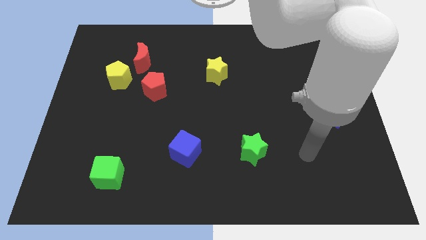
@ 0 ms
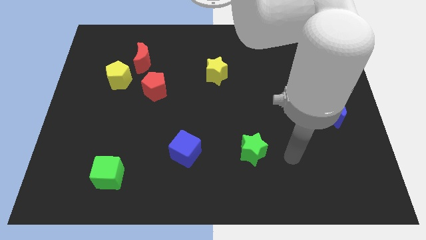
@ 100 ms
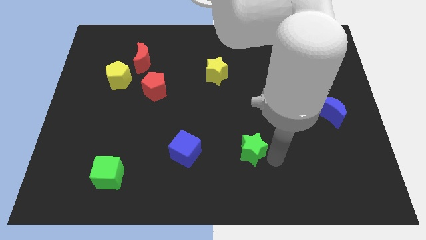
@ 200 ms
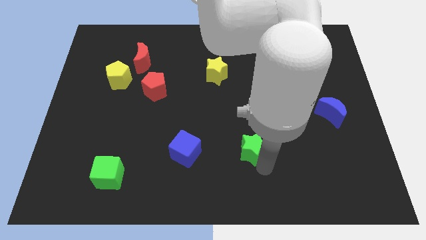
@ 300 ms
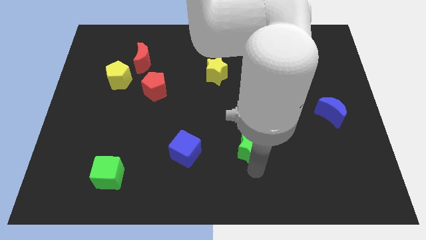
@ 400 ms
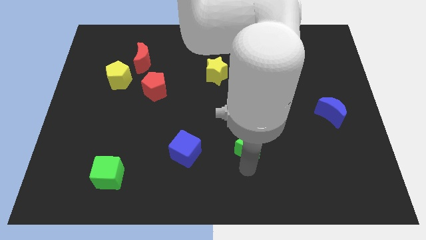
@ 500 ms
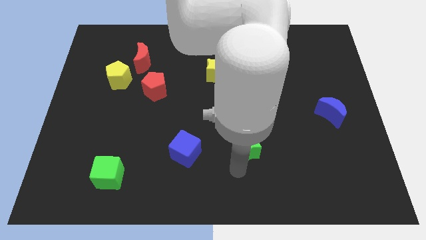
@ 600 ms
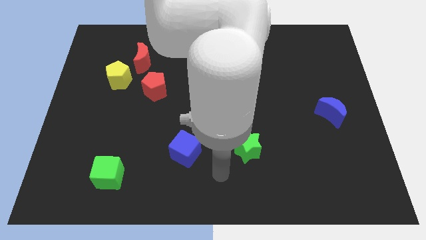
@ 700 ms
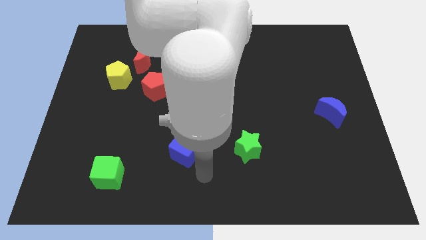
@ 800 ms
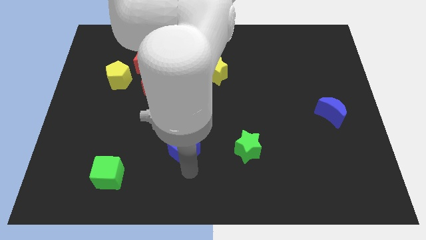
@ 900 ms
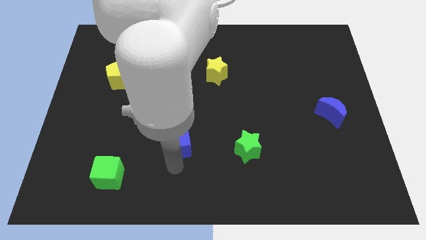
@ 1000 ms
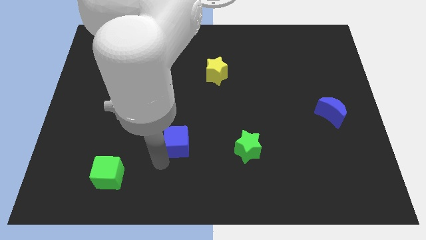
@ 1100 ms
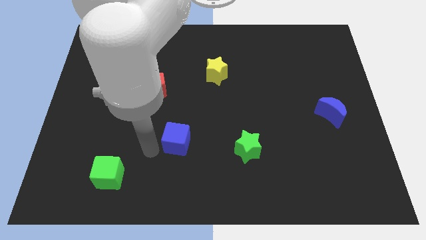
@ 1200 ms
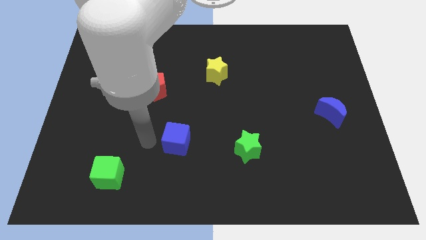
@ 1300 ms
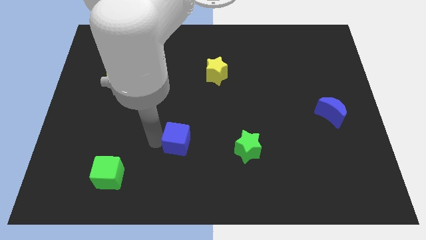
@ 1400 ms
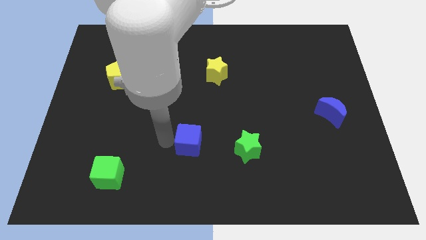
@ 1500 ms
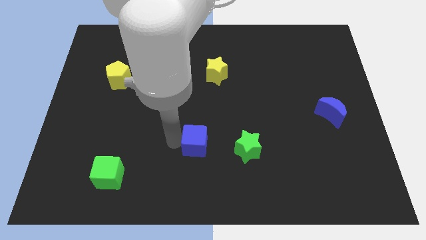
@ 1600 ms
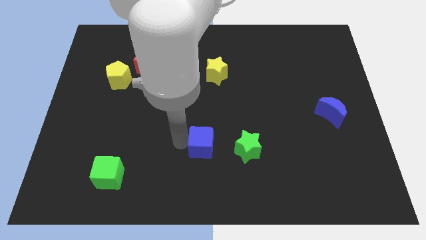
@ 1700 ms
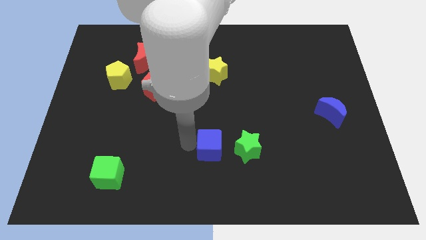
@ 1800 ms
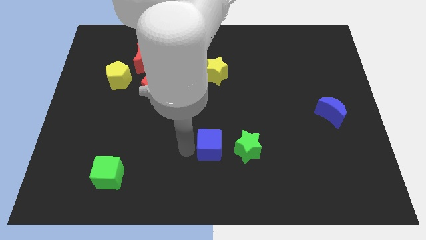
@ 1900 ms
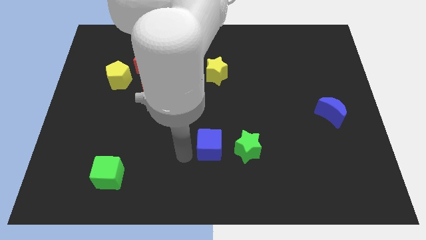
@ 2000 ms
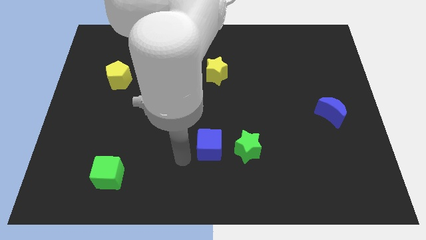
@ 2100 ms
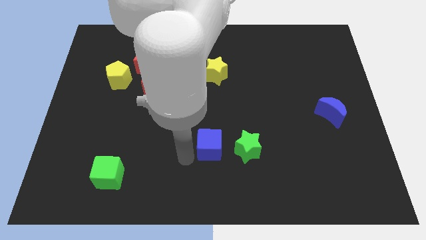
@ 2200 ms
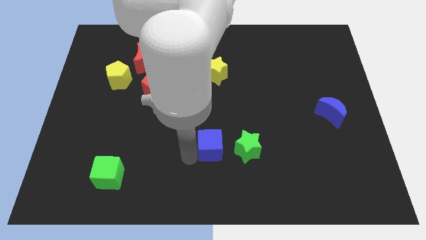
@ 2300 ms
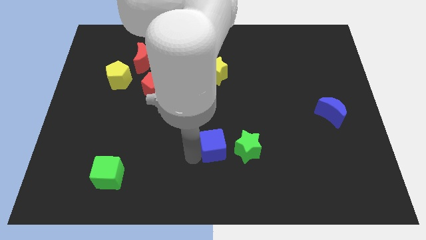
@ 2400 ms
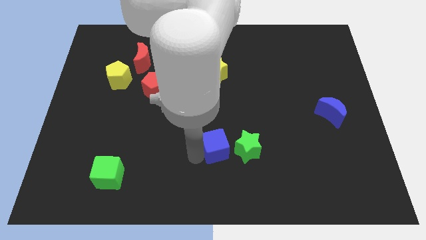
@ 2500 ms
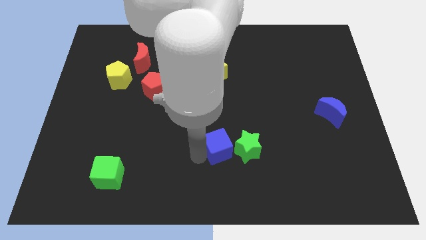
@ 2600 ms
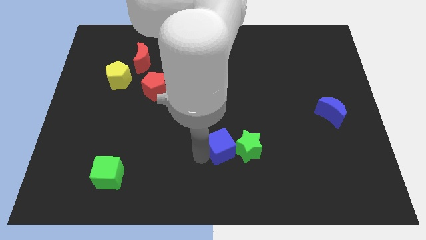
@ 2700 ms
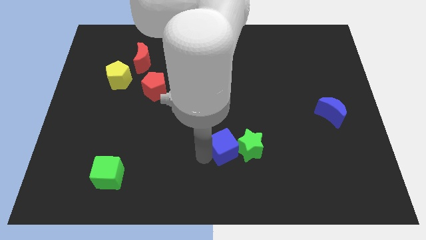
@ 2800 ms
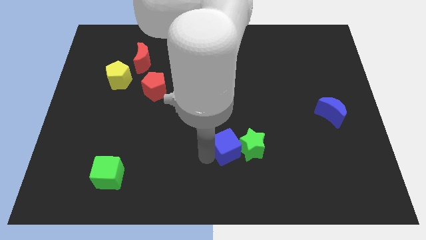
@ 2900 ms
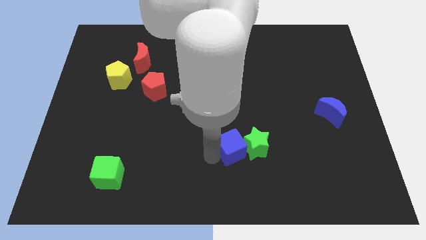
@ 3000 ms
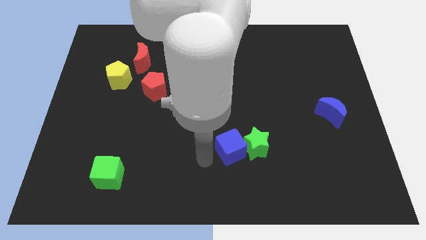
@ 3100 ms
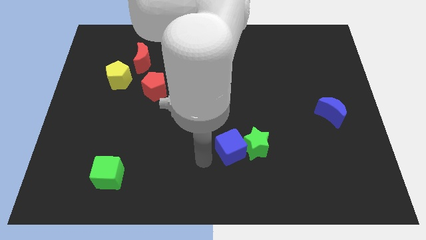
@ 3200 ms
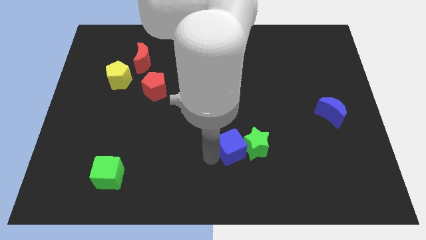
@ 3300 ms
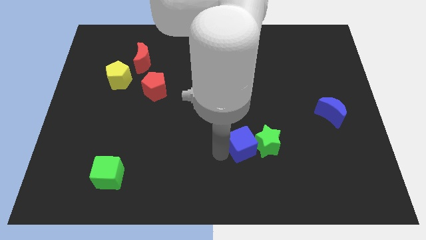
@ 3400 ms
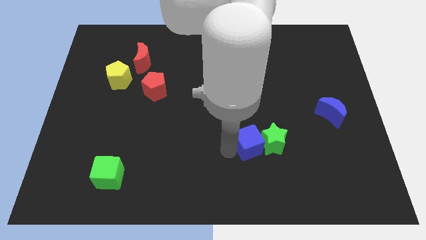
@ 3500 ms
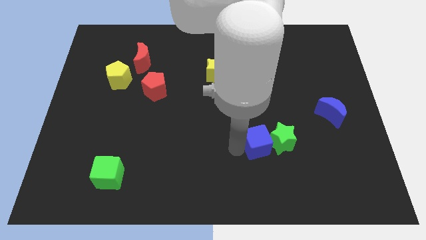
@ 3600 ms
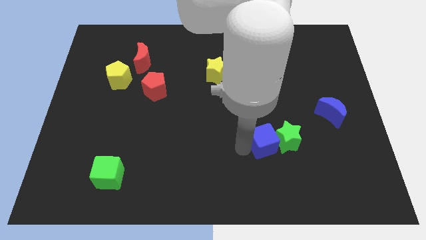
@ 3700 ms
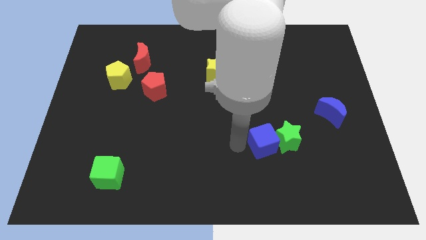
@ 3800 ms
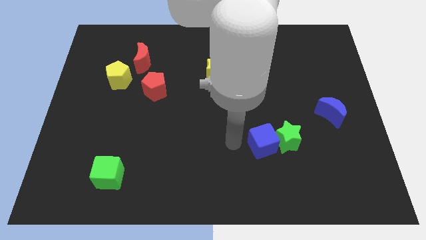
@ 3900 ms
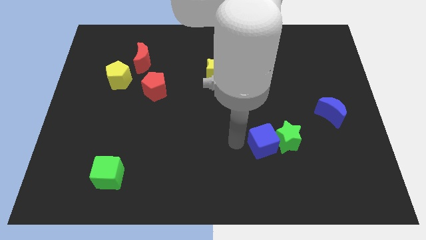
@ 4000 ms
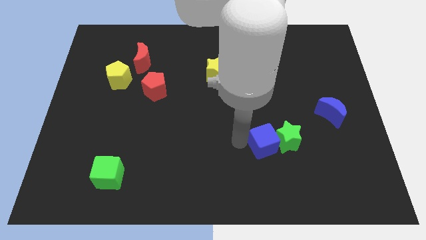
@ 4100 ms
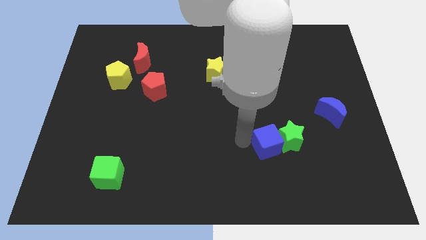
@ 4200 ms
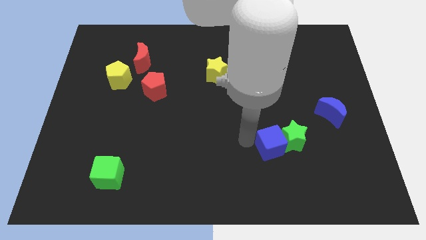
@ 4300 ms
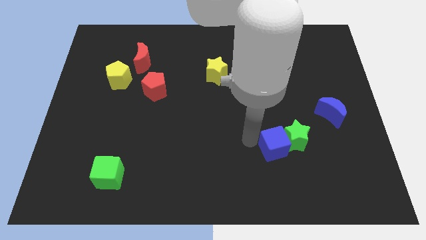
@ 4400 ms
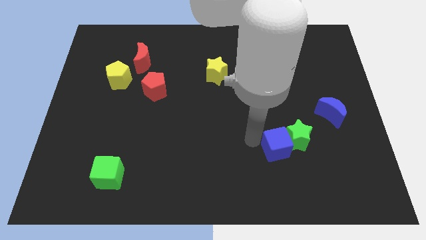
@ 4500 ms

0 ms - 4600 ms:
slide the blue cube right

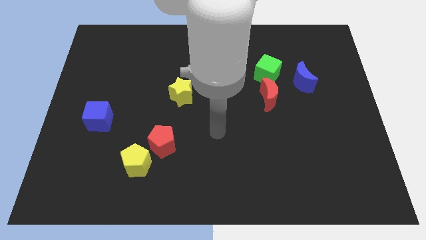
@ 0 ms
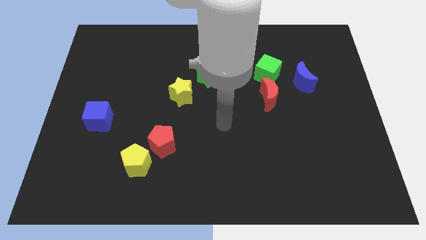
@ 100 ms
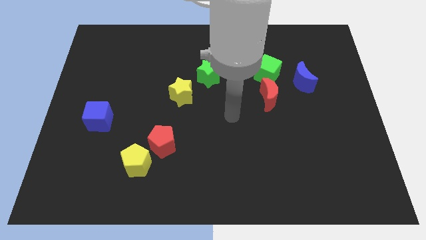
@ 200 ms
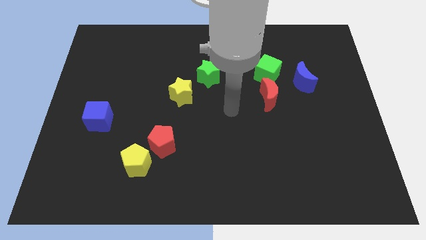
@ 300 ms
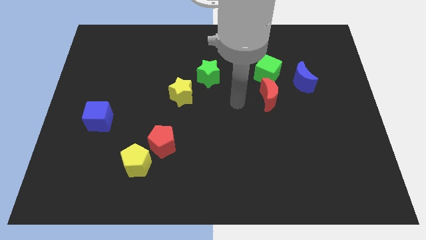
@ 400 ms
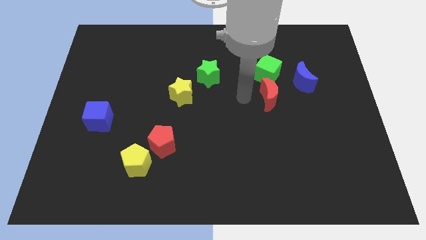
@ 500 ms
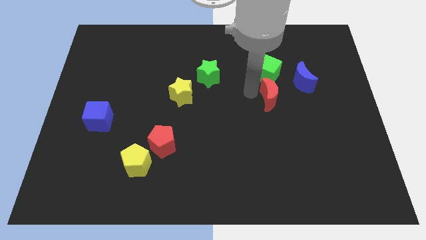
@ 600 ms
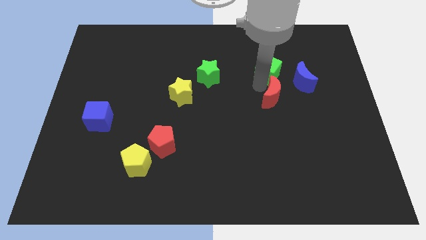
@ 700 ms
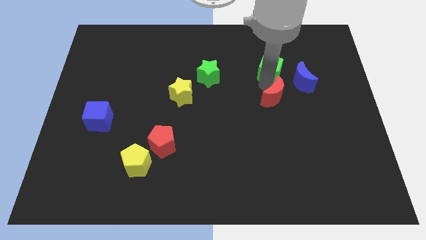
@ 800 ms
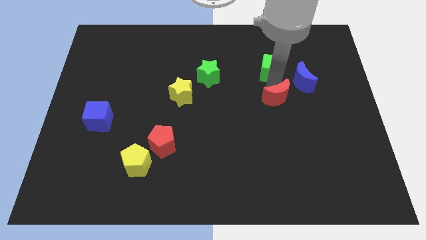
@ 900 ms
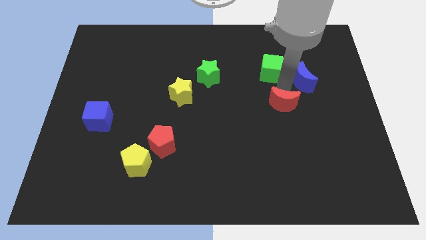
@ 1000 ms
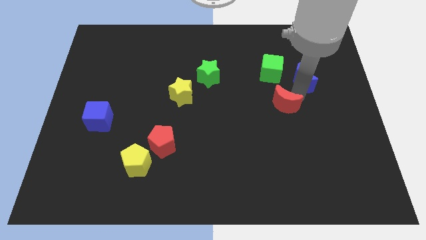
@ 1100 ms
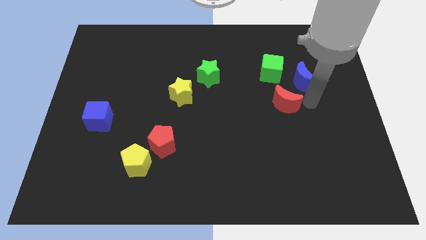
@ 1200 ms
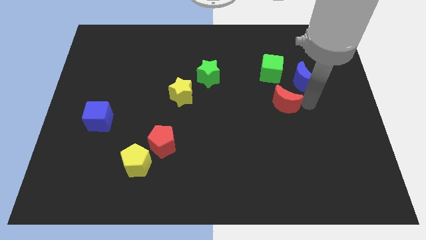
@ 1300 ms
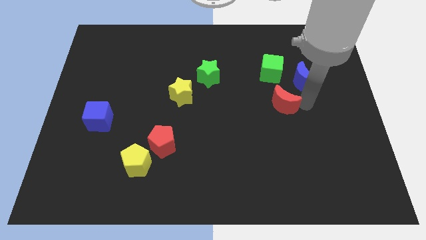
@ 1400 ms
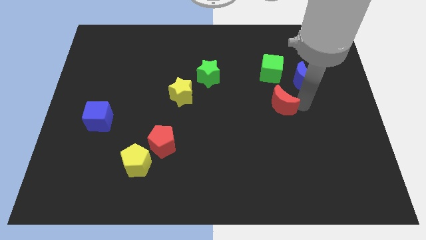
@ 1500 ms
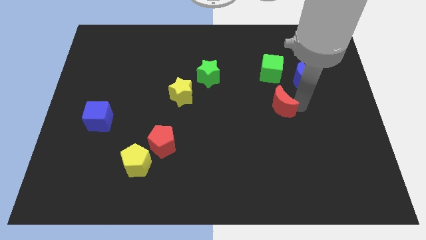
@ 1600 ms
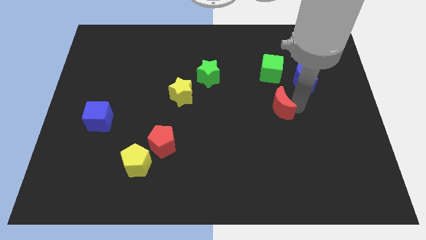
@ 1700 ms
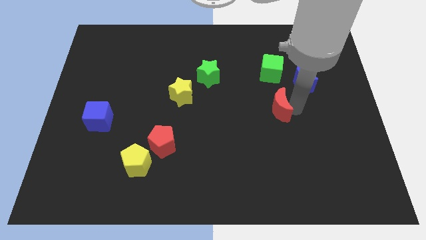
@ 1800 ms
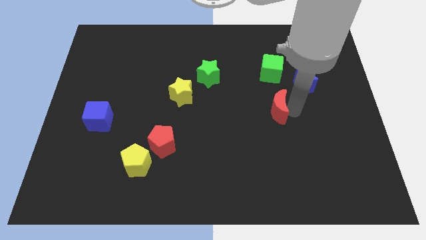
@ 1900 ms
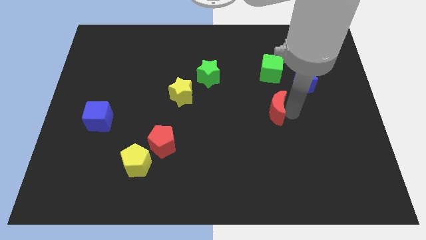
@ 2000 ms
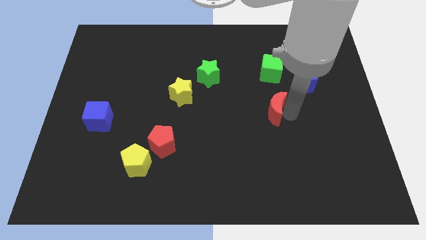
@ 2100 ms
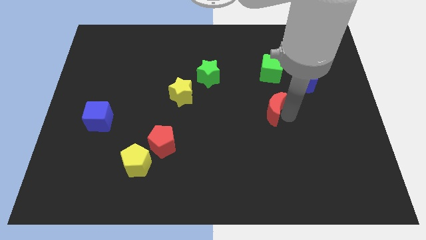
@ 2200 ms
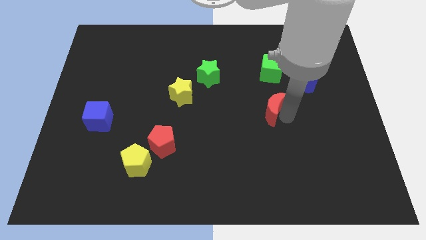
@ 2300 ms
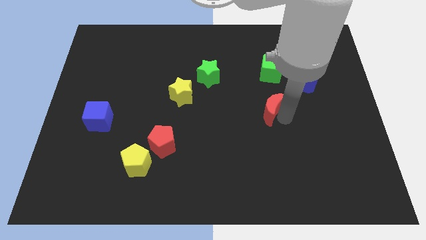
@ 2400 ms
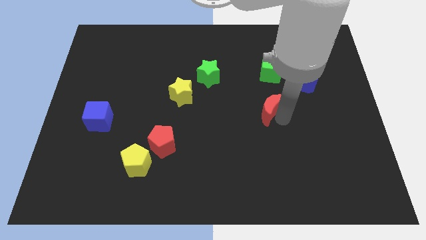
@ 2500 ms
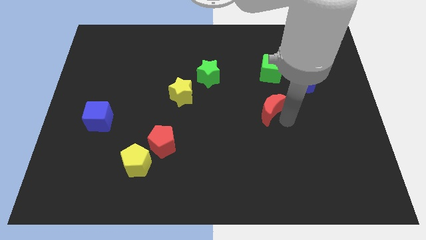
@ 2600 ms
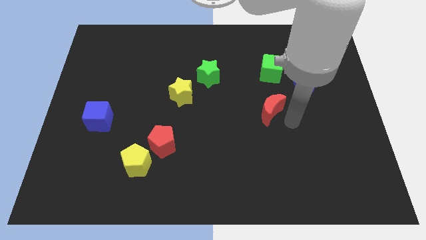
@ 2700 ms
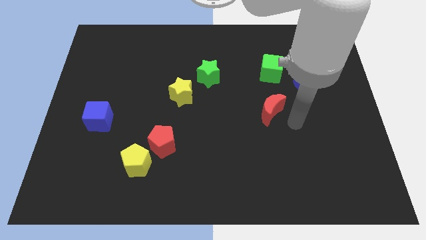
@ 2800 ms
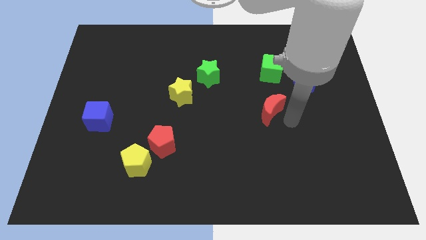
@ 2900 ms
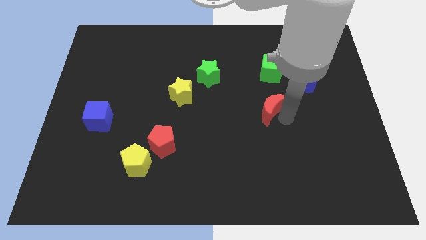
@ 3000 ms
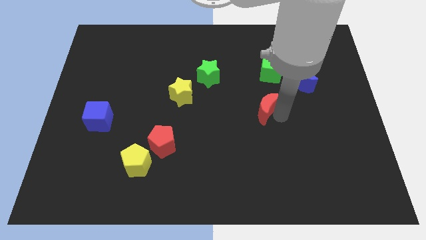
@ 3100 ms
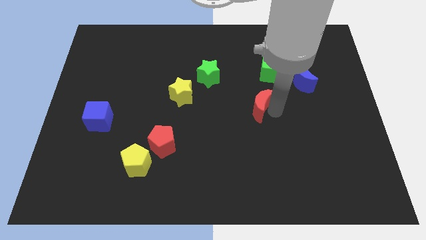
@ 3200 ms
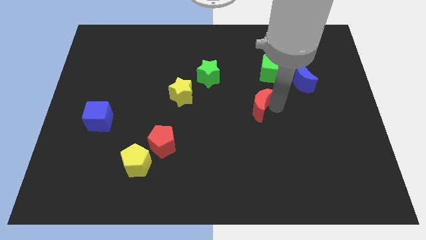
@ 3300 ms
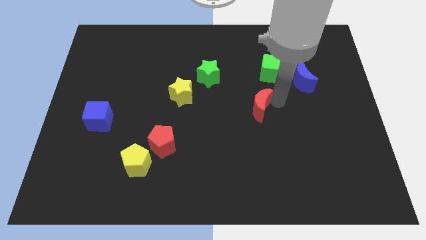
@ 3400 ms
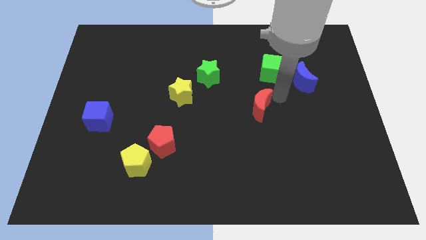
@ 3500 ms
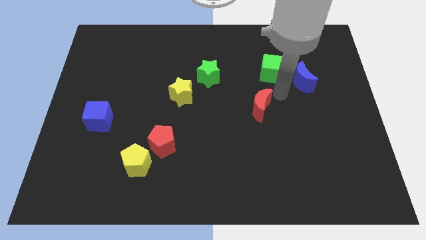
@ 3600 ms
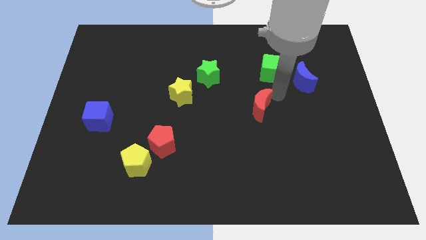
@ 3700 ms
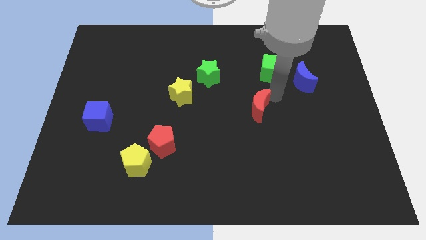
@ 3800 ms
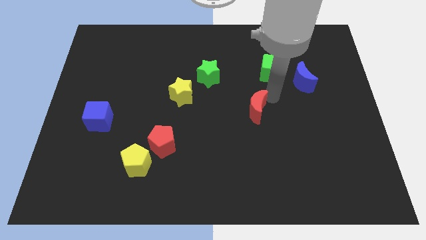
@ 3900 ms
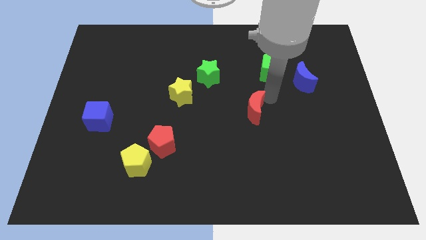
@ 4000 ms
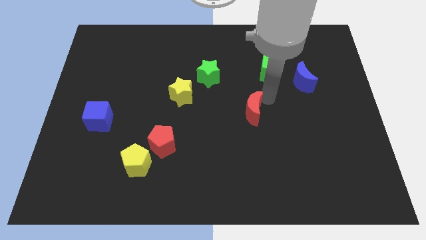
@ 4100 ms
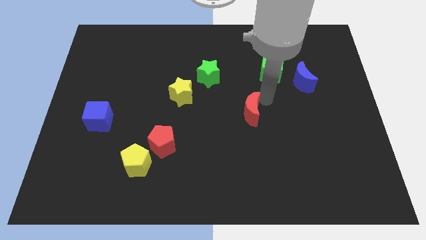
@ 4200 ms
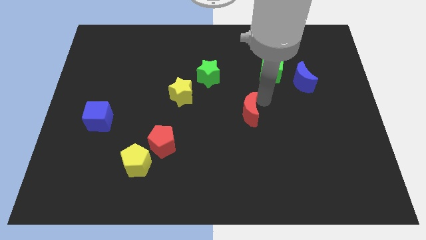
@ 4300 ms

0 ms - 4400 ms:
move the red moon diagonally down and left somewhat
